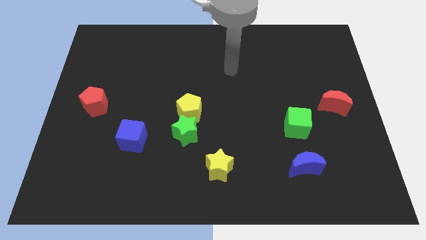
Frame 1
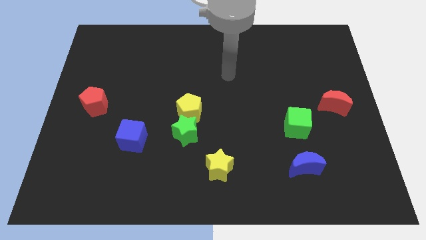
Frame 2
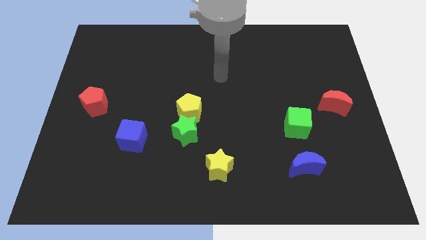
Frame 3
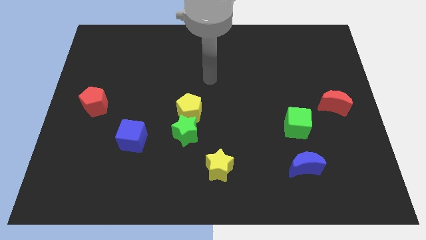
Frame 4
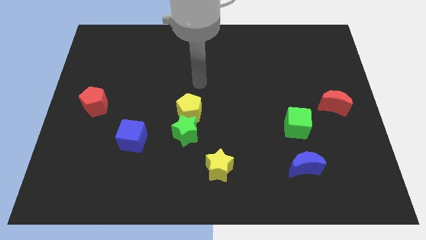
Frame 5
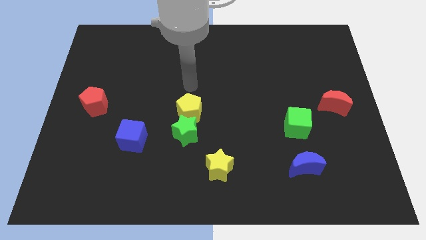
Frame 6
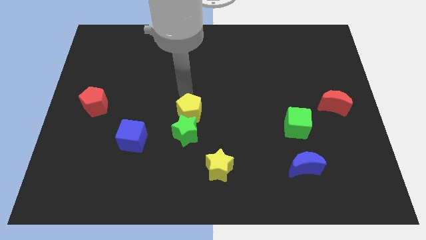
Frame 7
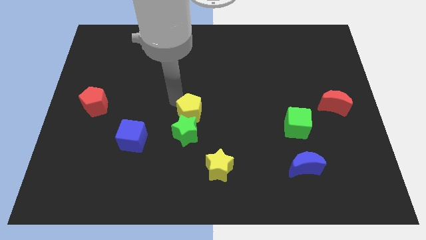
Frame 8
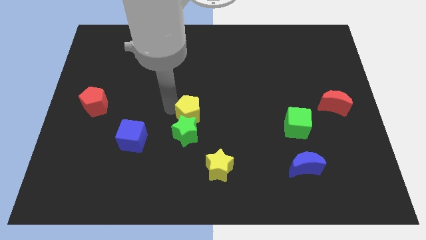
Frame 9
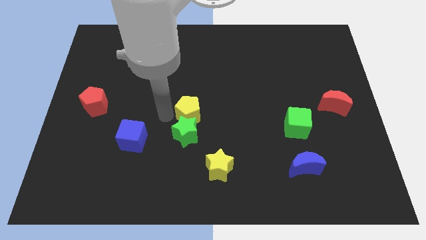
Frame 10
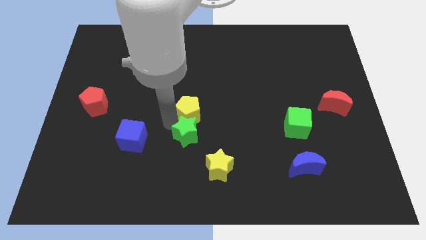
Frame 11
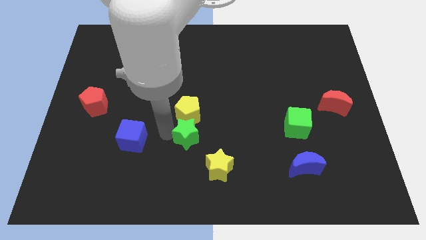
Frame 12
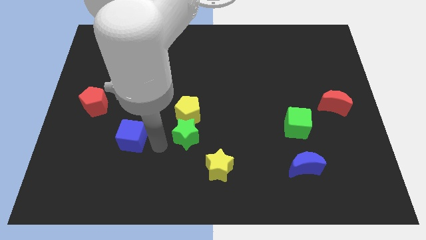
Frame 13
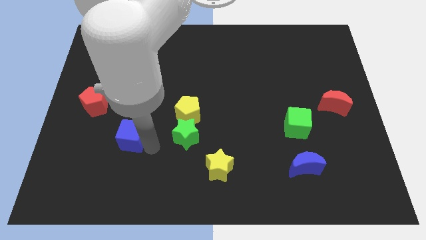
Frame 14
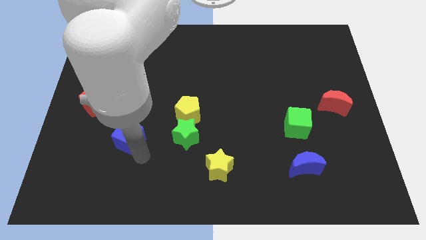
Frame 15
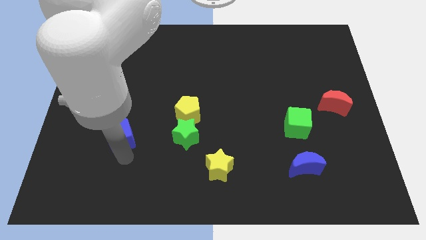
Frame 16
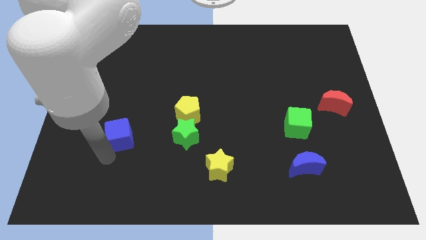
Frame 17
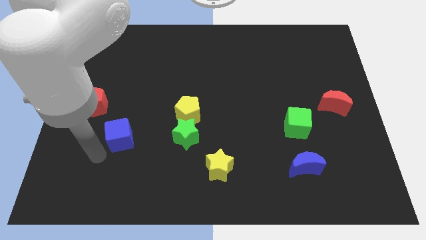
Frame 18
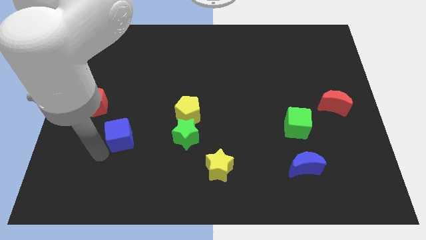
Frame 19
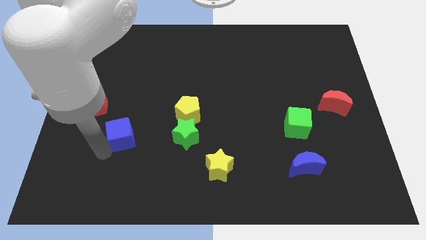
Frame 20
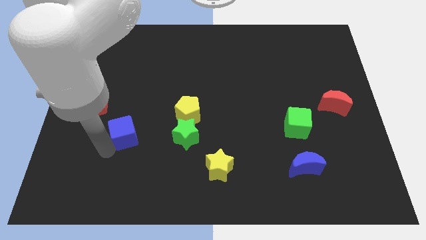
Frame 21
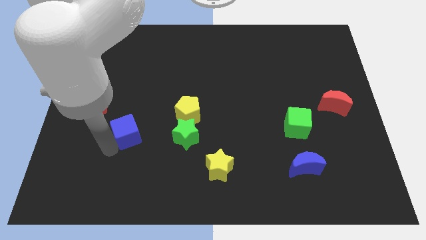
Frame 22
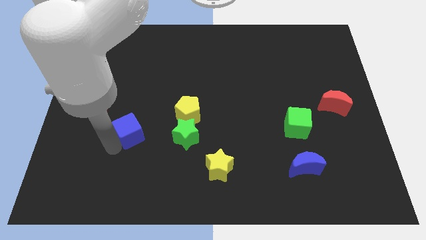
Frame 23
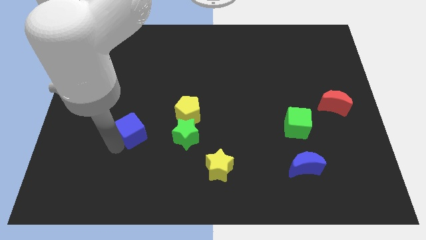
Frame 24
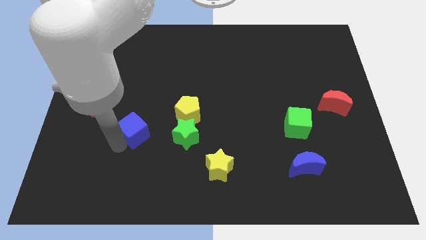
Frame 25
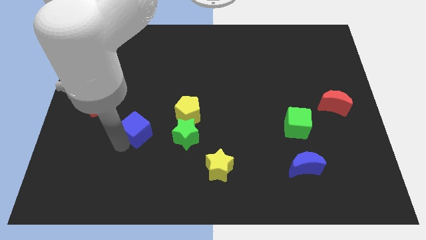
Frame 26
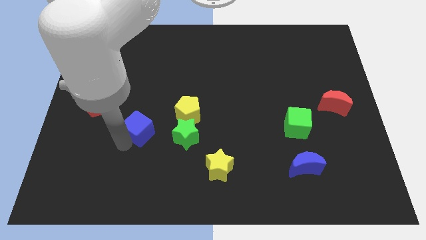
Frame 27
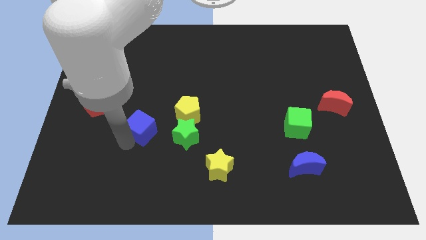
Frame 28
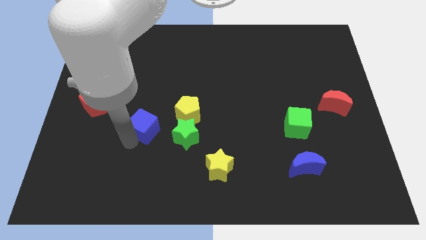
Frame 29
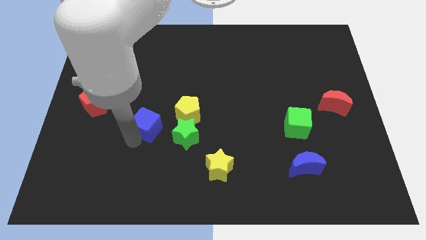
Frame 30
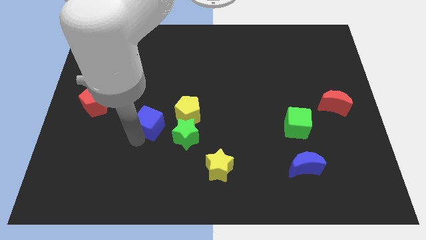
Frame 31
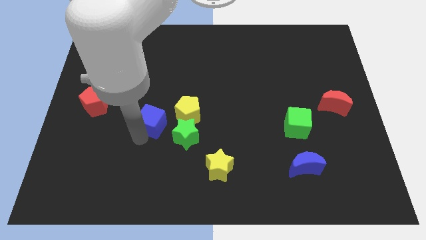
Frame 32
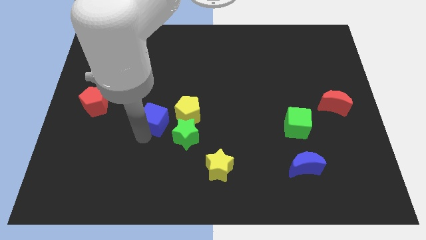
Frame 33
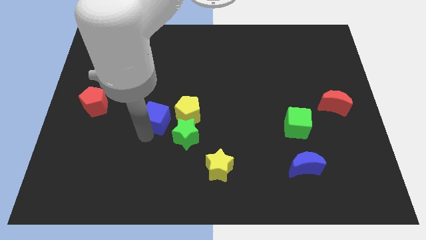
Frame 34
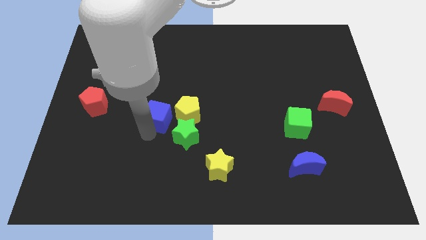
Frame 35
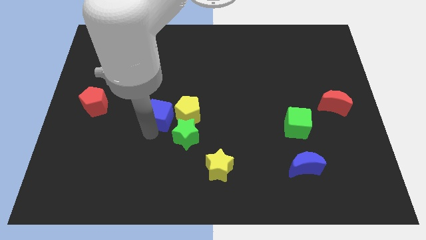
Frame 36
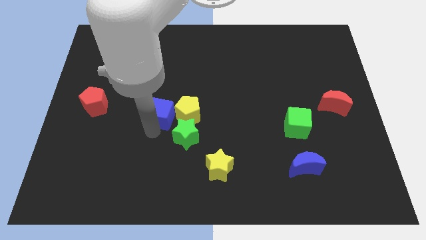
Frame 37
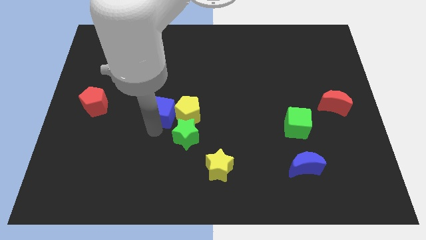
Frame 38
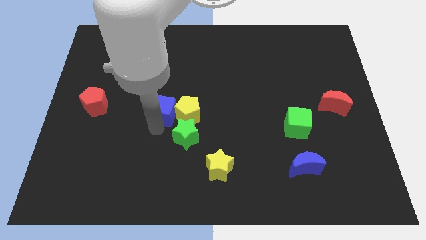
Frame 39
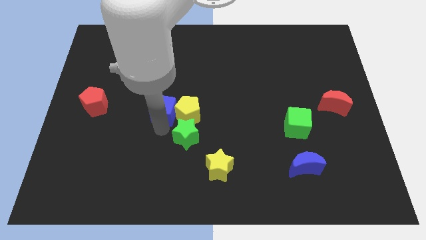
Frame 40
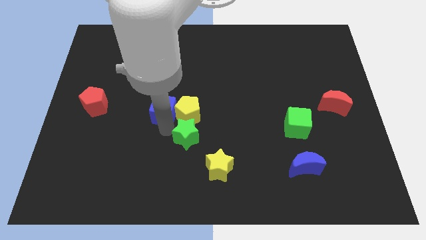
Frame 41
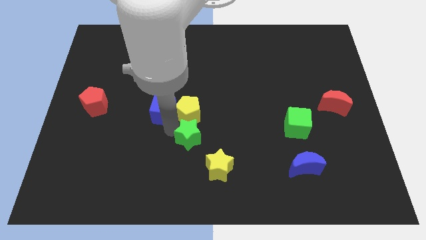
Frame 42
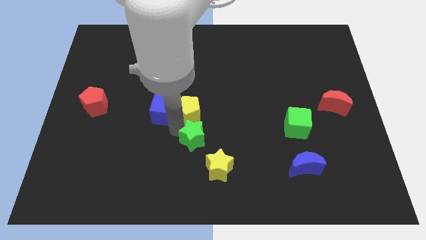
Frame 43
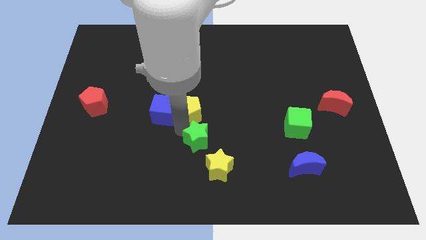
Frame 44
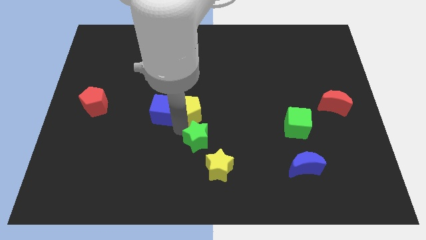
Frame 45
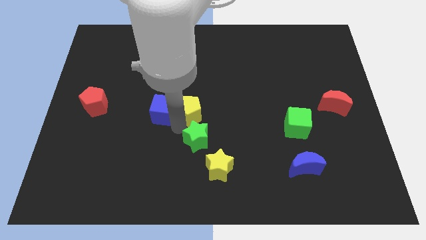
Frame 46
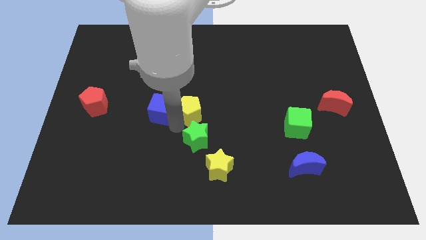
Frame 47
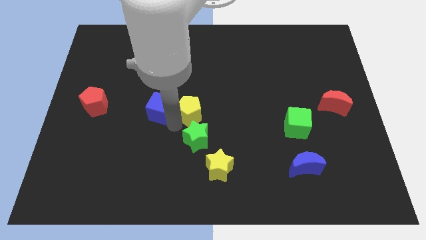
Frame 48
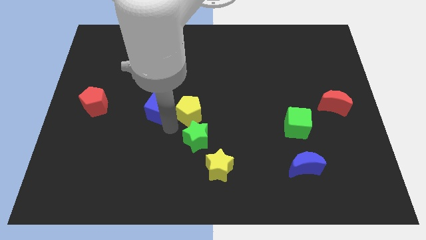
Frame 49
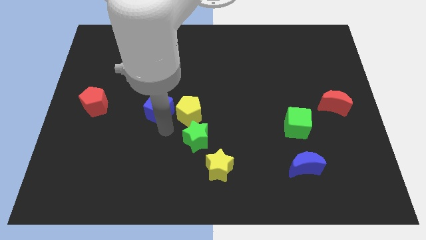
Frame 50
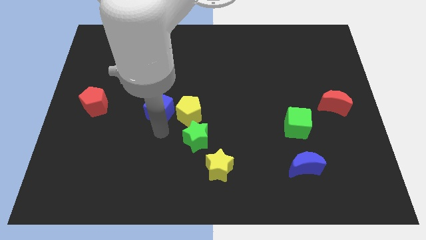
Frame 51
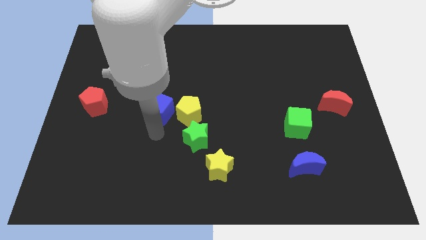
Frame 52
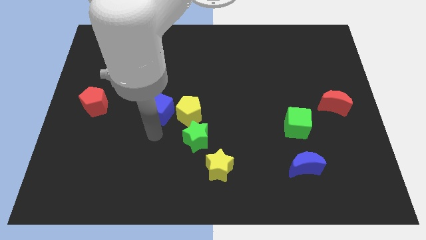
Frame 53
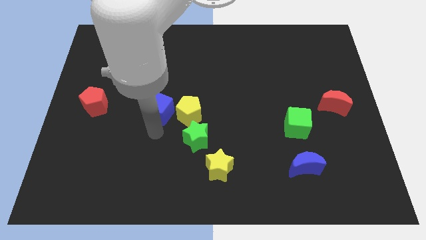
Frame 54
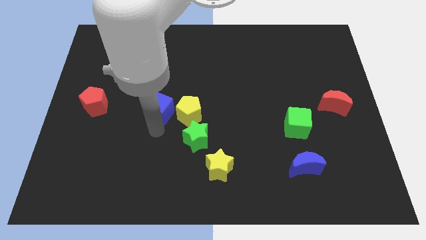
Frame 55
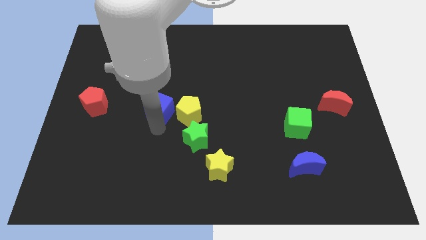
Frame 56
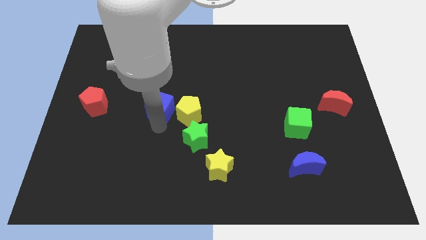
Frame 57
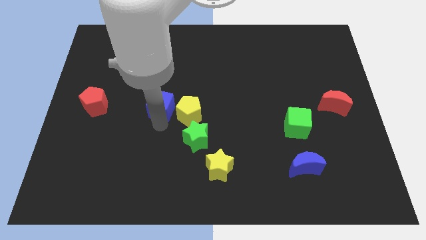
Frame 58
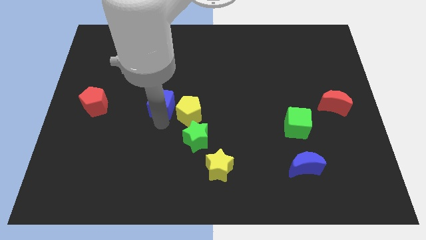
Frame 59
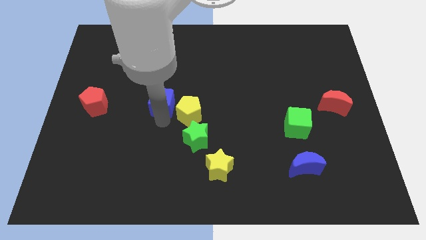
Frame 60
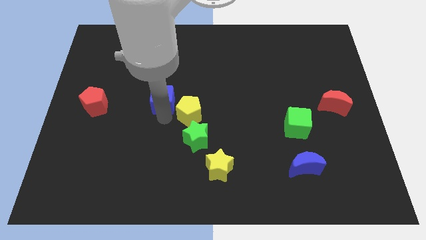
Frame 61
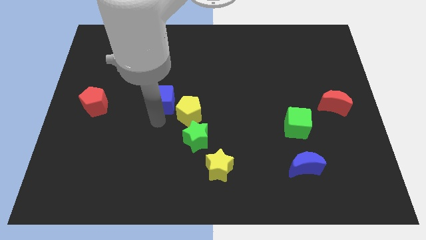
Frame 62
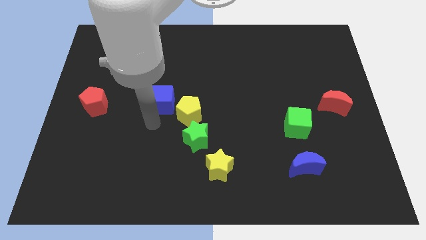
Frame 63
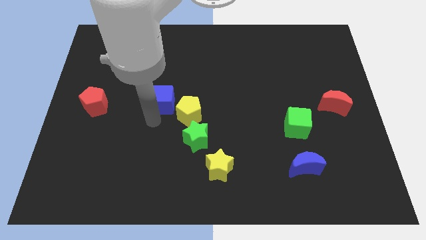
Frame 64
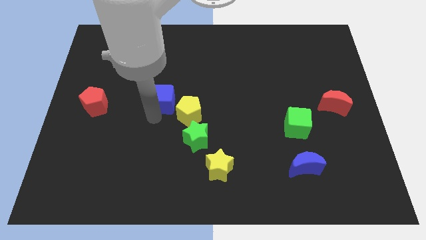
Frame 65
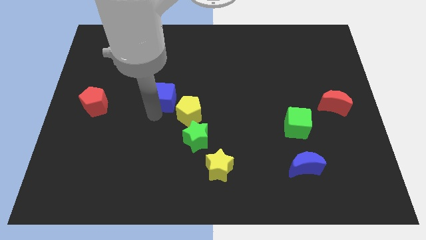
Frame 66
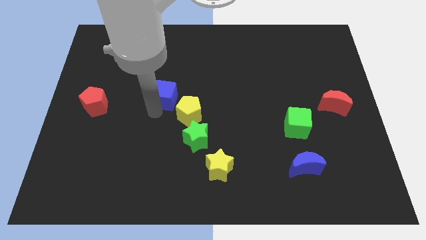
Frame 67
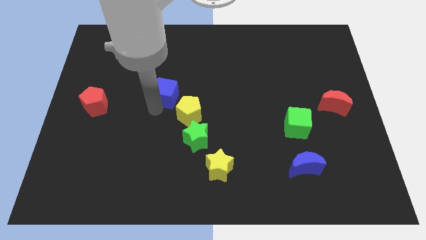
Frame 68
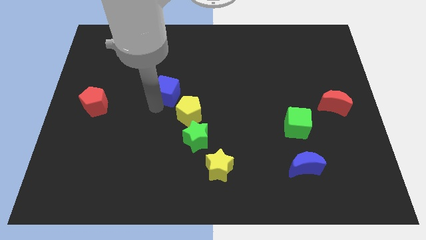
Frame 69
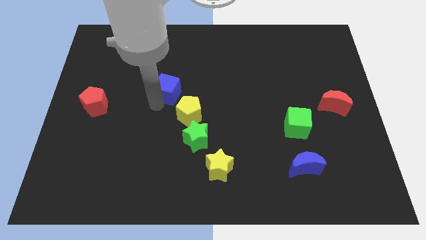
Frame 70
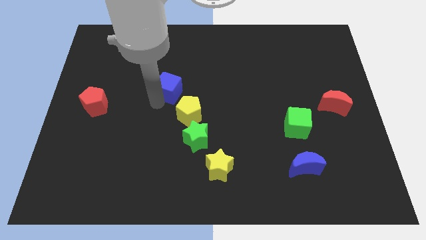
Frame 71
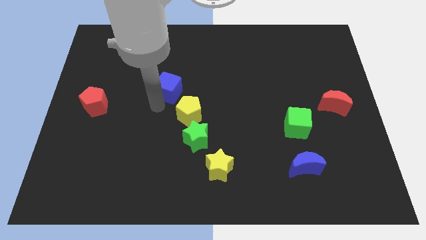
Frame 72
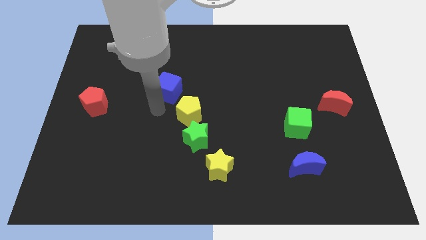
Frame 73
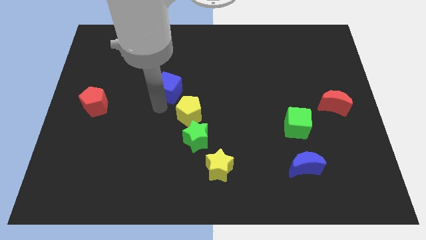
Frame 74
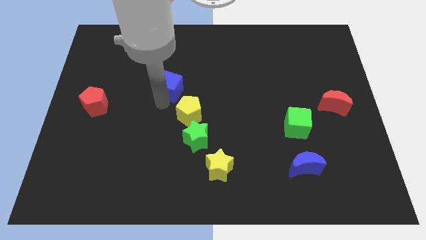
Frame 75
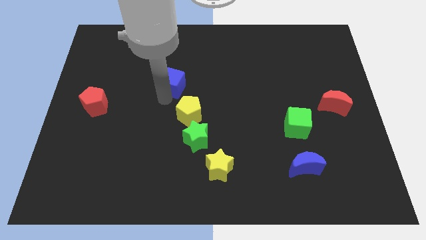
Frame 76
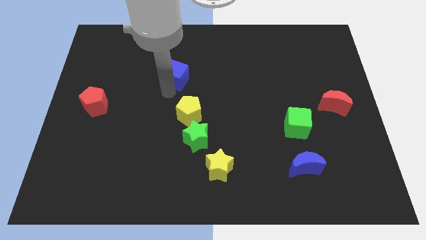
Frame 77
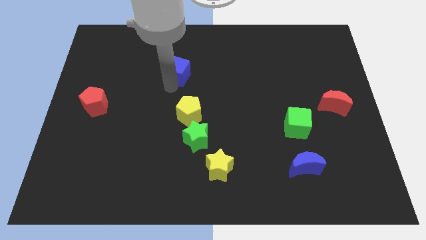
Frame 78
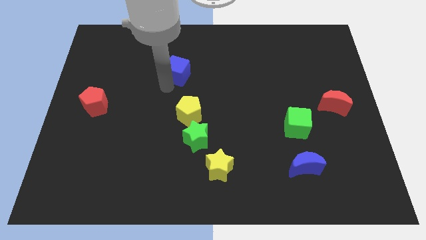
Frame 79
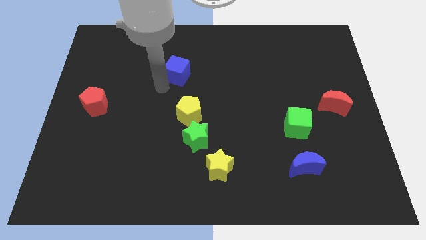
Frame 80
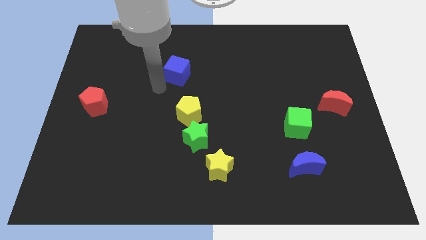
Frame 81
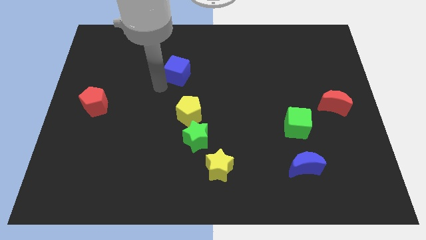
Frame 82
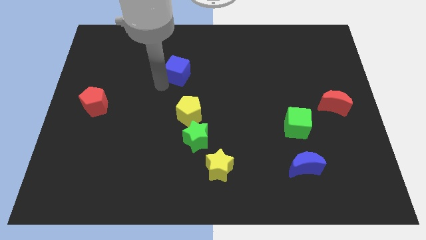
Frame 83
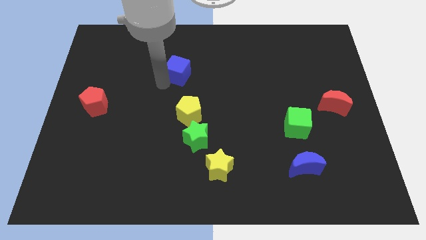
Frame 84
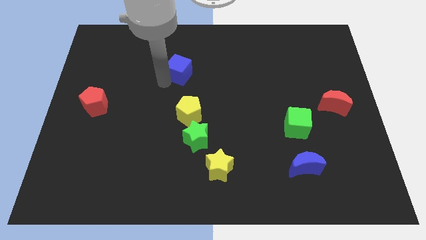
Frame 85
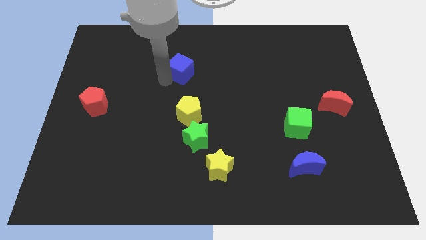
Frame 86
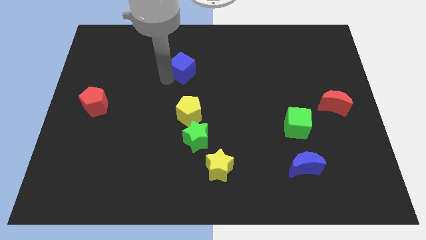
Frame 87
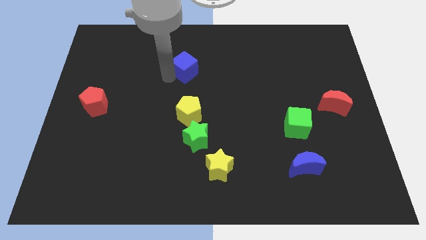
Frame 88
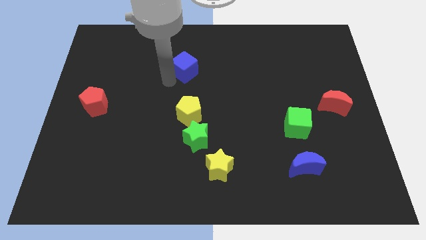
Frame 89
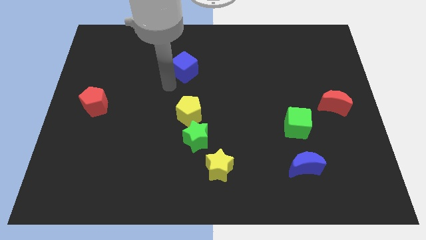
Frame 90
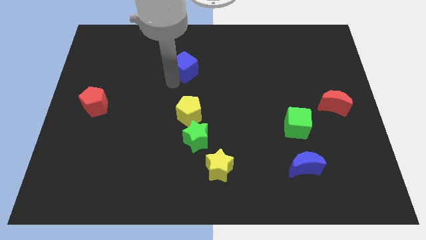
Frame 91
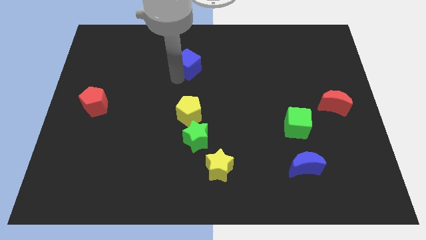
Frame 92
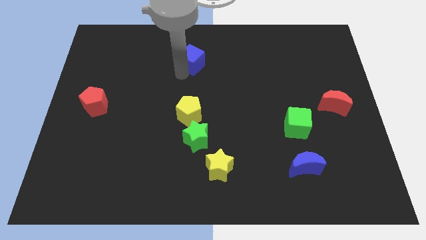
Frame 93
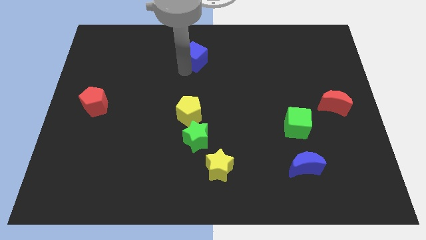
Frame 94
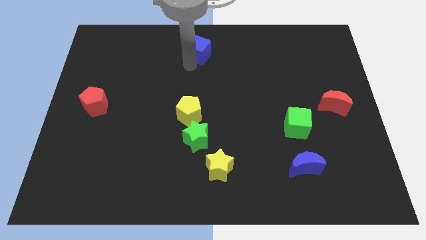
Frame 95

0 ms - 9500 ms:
slide the blue cube to the top
